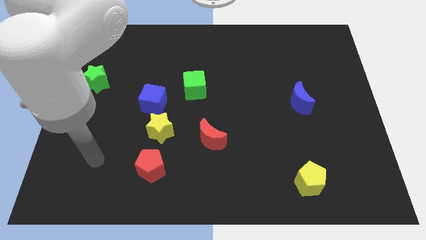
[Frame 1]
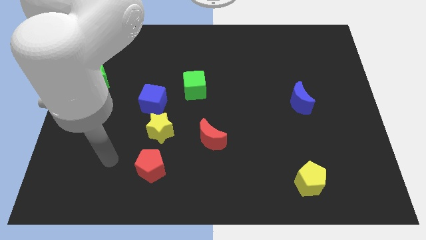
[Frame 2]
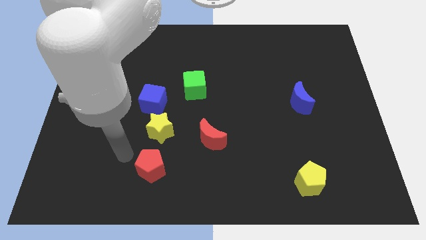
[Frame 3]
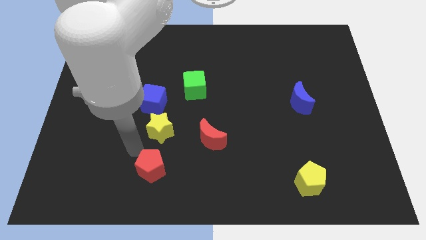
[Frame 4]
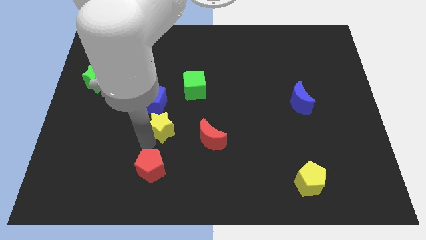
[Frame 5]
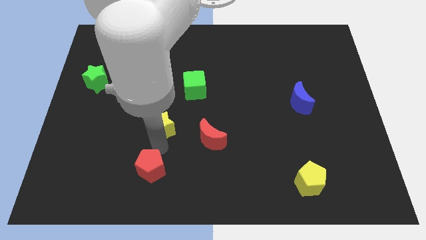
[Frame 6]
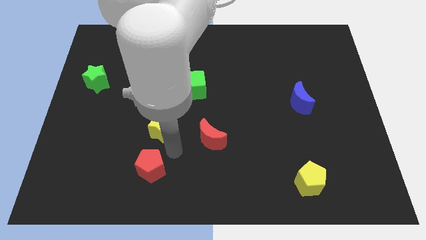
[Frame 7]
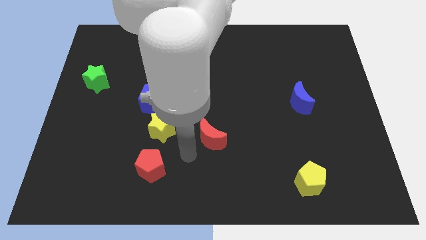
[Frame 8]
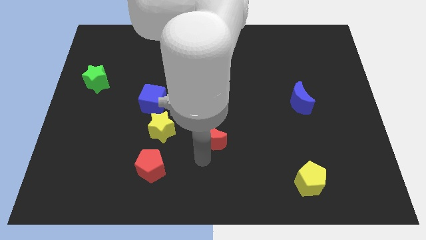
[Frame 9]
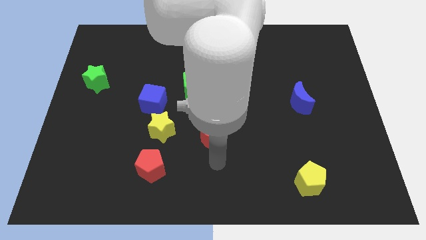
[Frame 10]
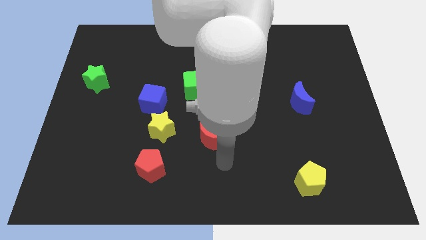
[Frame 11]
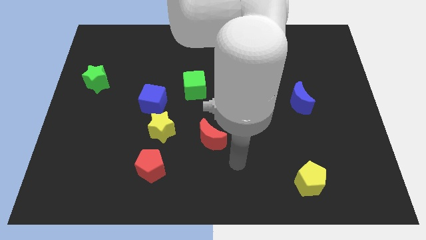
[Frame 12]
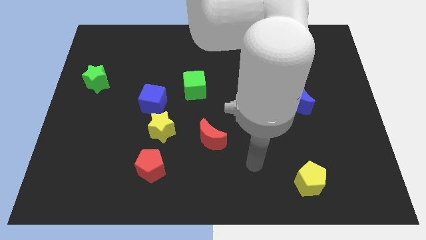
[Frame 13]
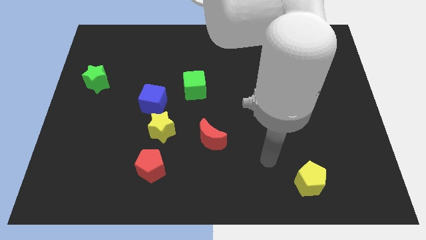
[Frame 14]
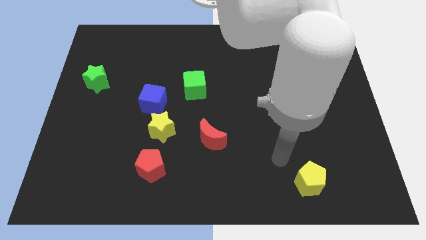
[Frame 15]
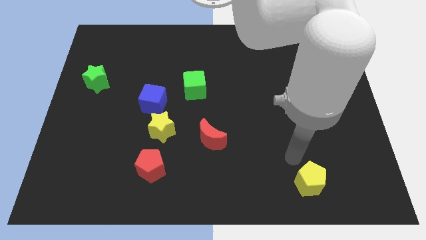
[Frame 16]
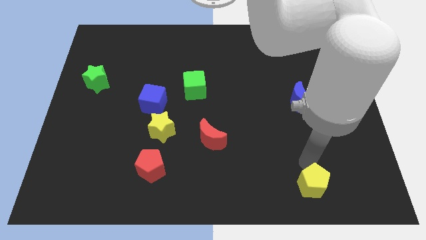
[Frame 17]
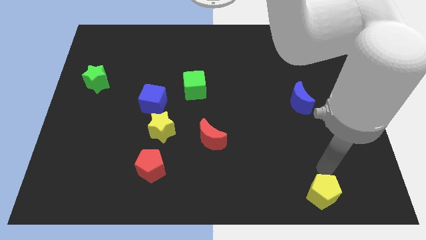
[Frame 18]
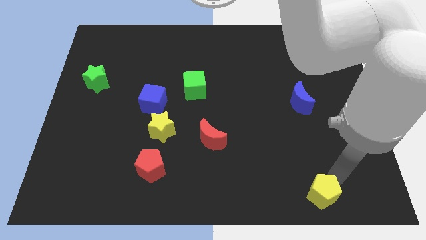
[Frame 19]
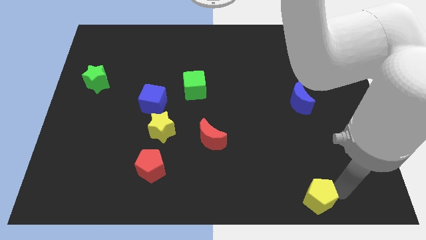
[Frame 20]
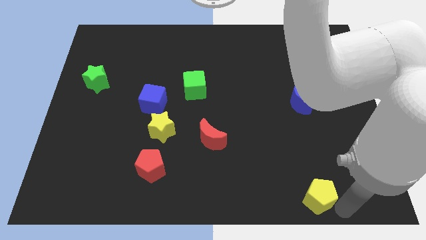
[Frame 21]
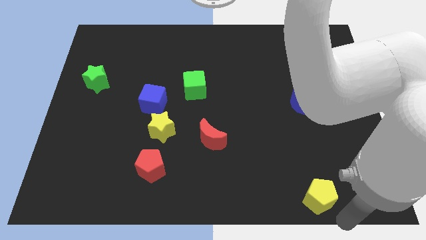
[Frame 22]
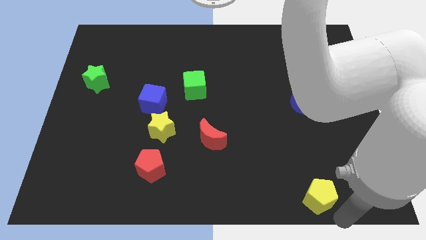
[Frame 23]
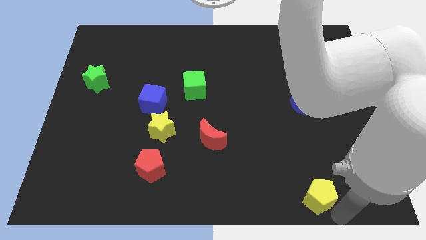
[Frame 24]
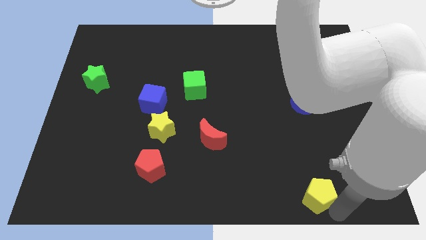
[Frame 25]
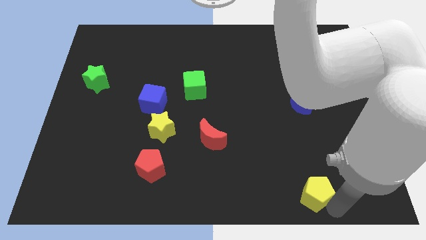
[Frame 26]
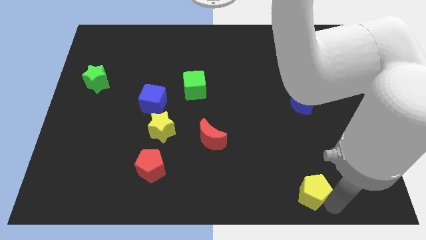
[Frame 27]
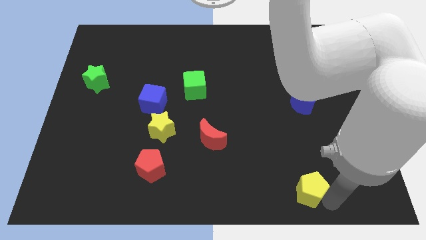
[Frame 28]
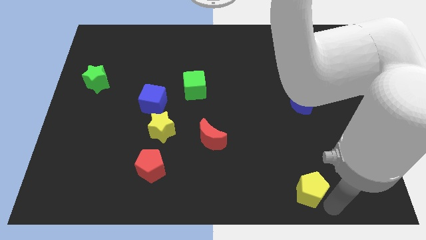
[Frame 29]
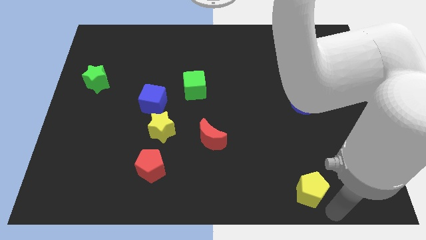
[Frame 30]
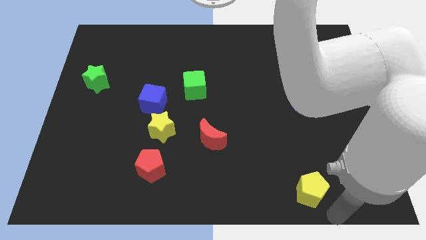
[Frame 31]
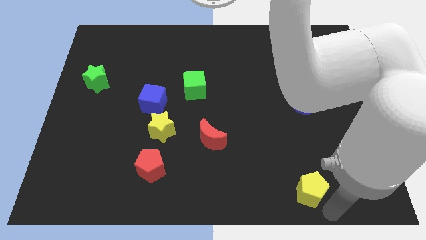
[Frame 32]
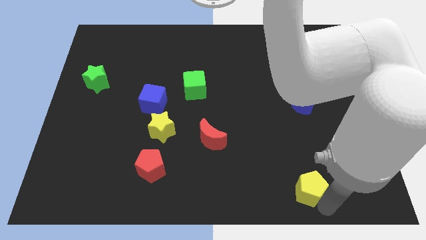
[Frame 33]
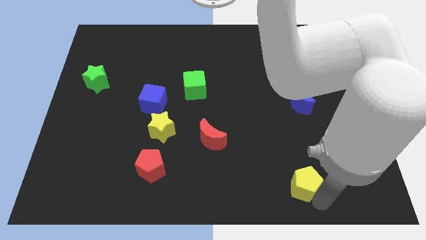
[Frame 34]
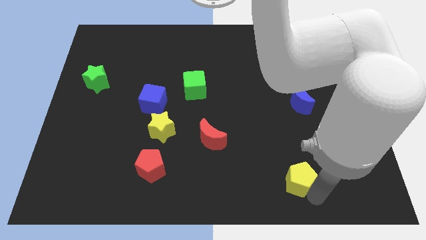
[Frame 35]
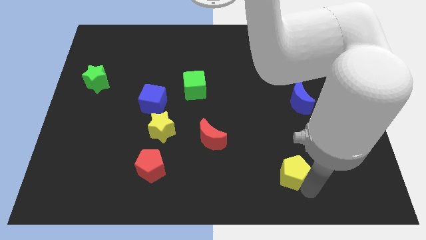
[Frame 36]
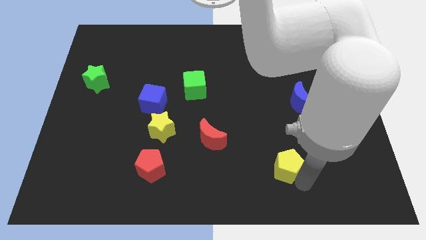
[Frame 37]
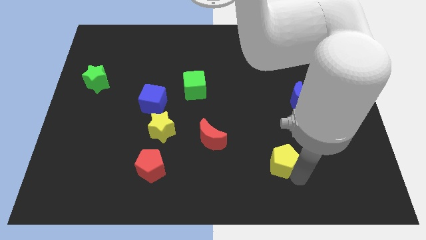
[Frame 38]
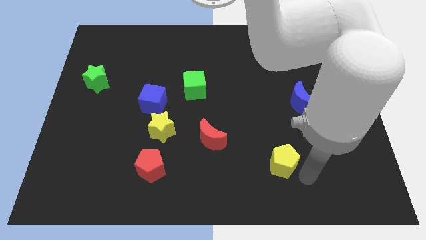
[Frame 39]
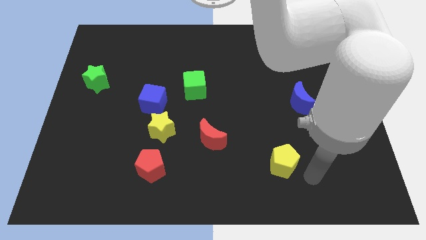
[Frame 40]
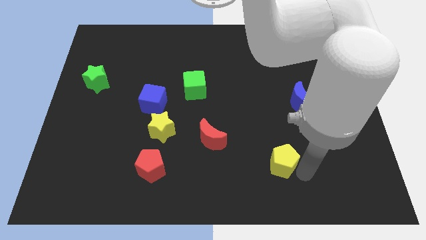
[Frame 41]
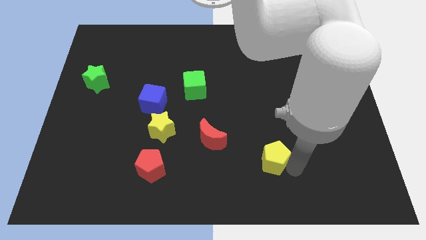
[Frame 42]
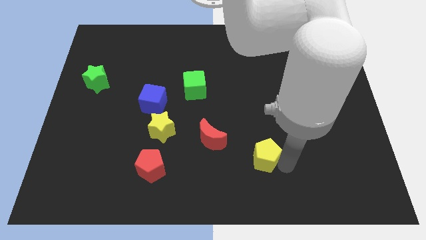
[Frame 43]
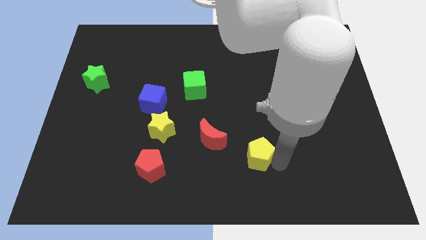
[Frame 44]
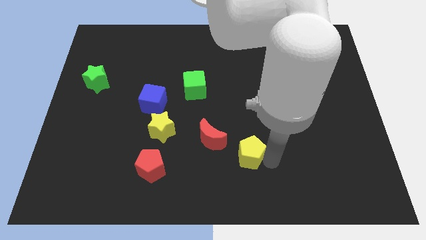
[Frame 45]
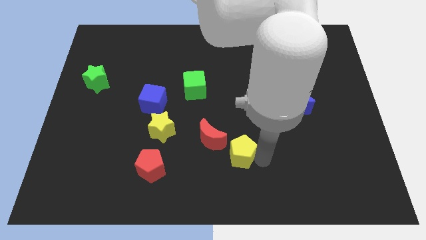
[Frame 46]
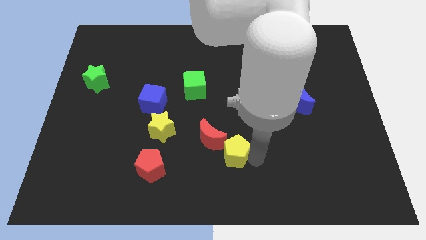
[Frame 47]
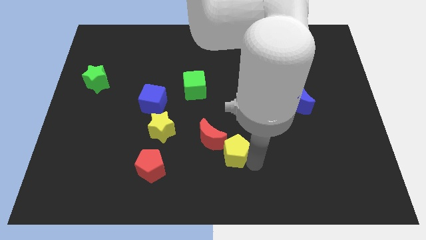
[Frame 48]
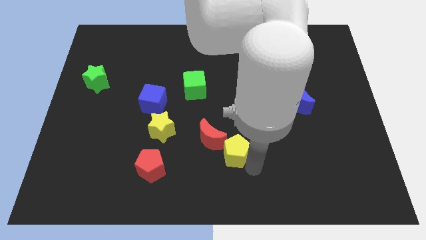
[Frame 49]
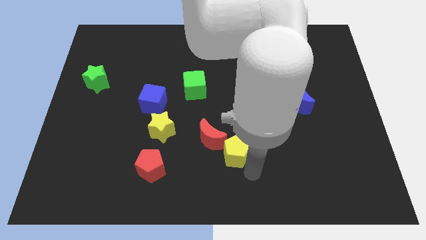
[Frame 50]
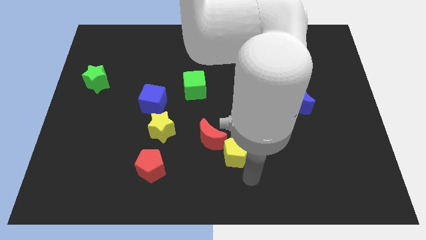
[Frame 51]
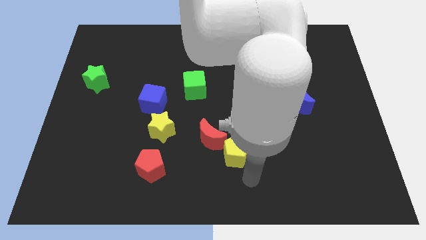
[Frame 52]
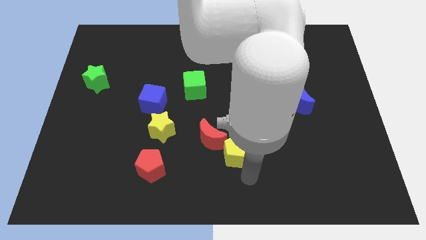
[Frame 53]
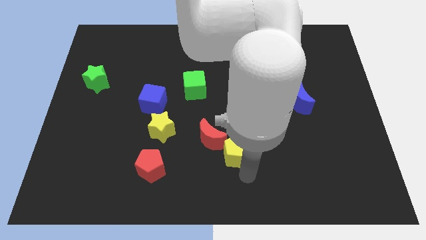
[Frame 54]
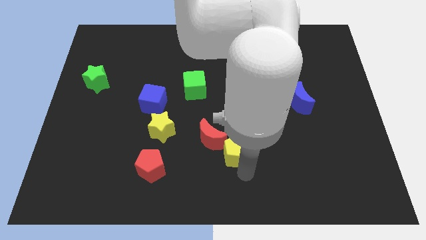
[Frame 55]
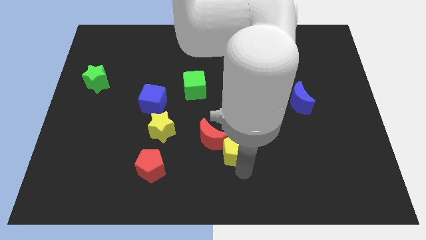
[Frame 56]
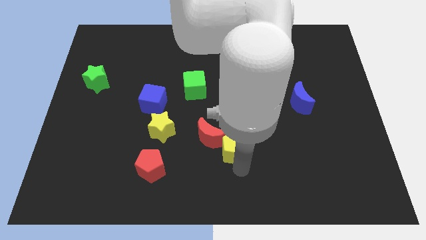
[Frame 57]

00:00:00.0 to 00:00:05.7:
slide the yellow pentagon towards the red moon

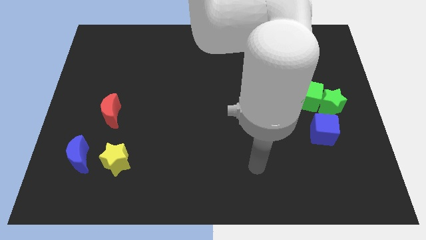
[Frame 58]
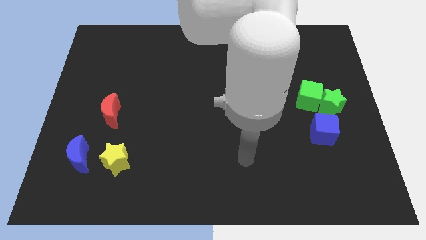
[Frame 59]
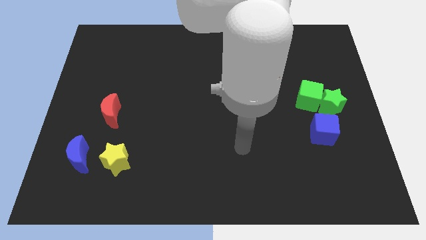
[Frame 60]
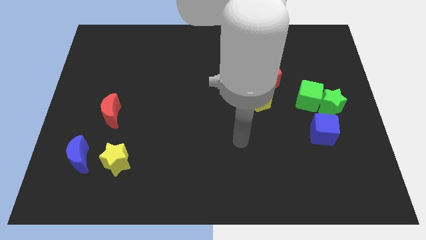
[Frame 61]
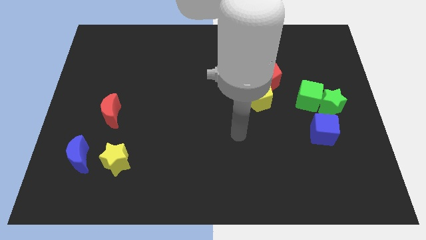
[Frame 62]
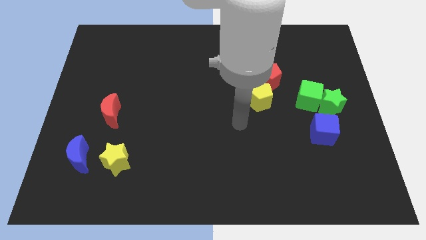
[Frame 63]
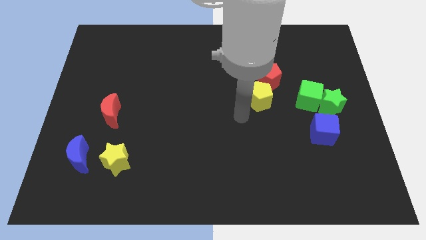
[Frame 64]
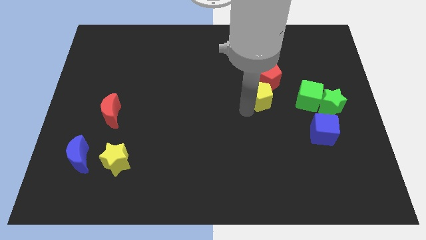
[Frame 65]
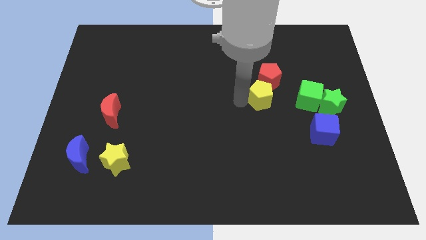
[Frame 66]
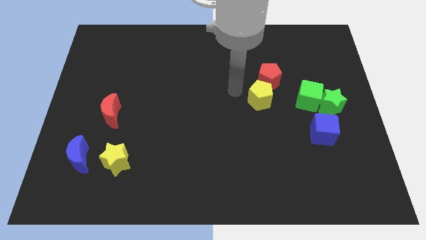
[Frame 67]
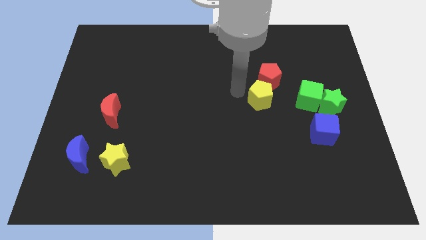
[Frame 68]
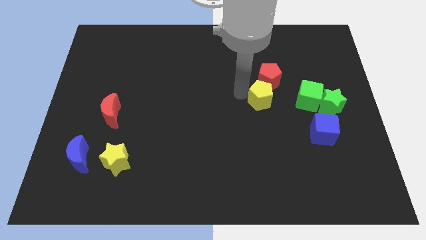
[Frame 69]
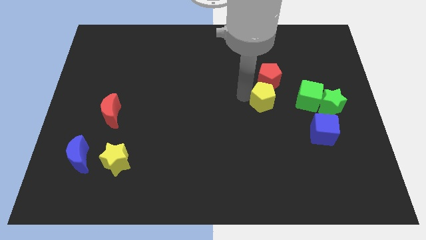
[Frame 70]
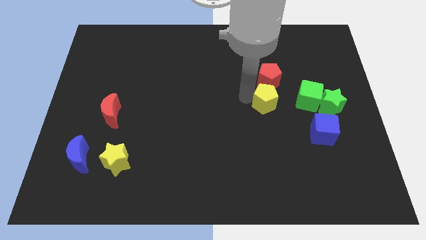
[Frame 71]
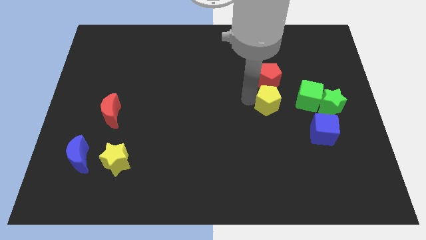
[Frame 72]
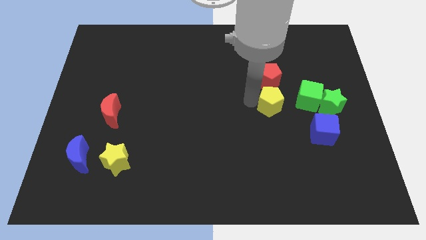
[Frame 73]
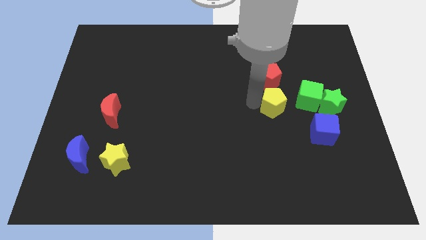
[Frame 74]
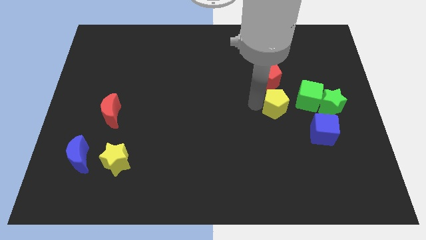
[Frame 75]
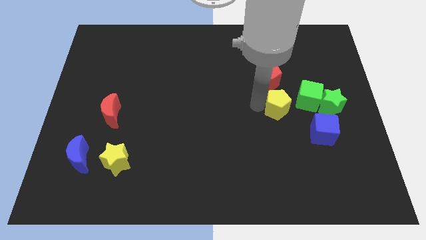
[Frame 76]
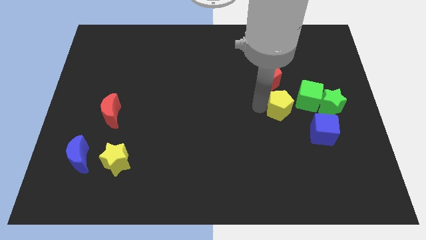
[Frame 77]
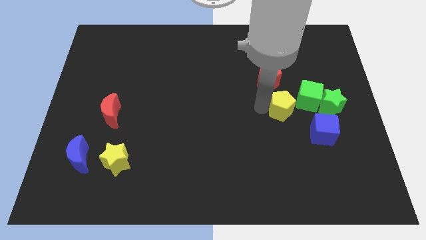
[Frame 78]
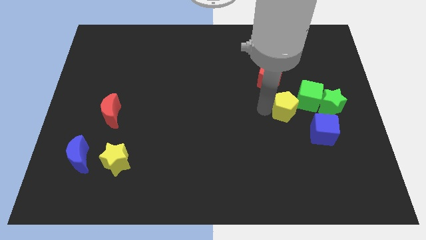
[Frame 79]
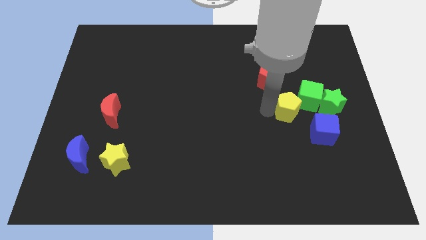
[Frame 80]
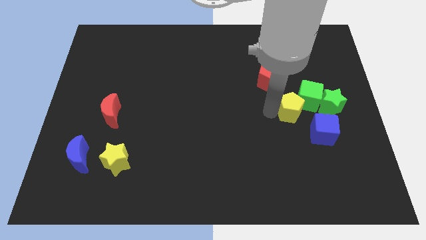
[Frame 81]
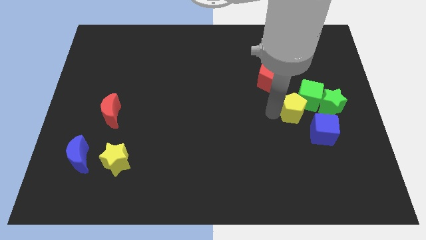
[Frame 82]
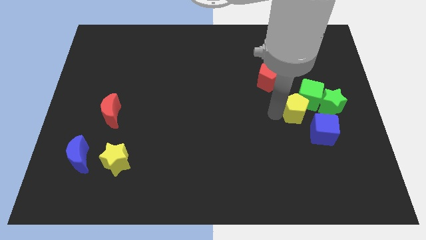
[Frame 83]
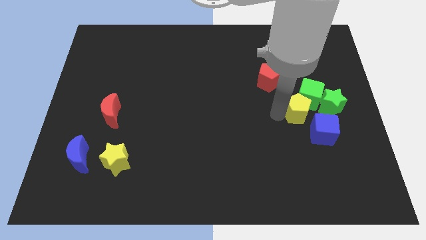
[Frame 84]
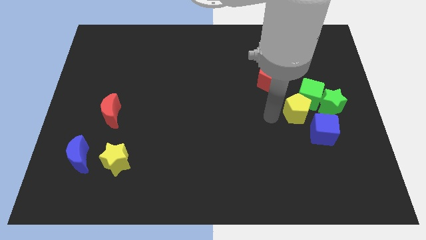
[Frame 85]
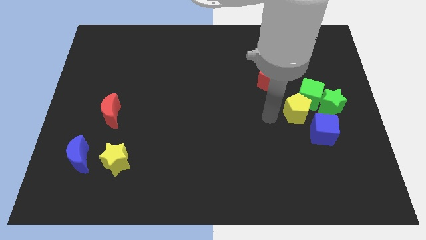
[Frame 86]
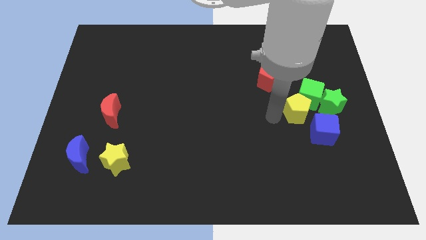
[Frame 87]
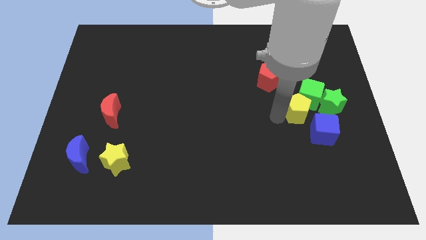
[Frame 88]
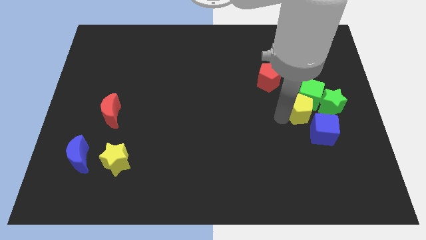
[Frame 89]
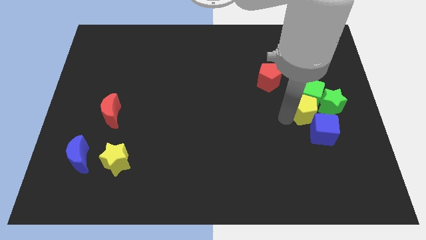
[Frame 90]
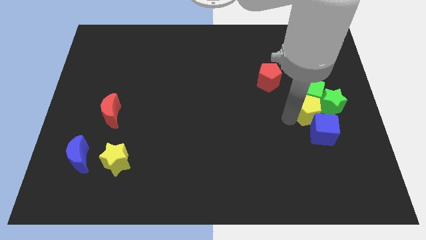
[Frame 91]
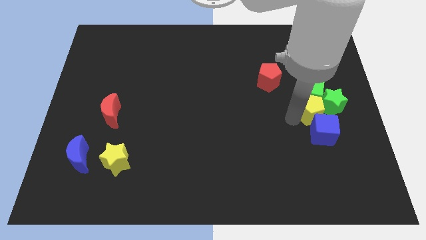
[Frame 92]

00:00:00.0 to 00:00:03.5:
put the yellow pentagon to the green star
